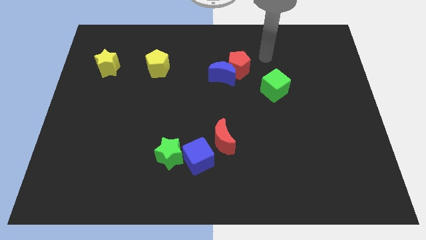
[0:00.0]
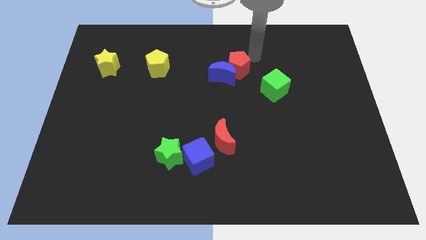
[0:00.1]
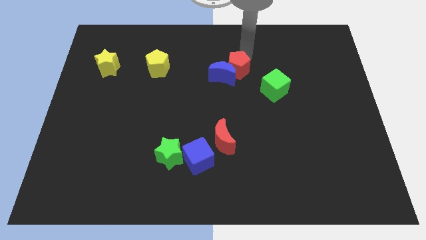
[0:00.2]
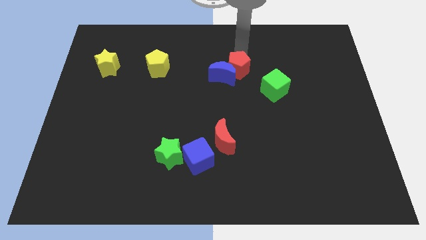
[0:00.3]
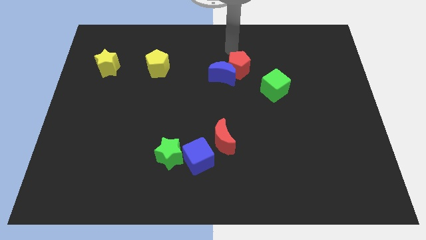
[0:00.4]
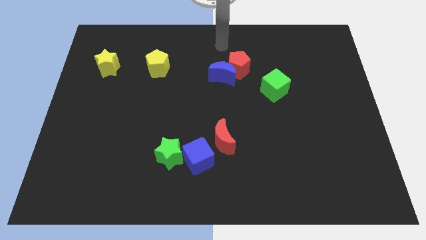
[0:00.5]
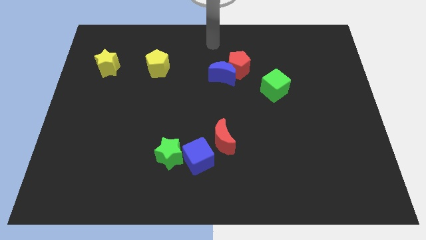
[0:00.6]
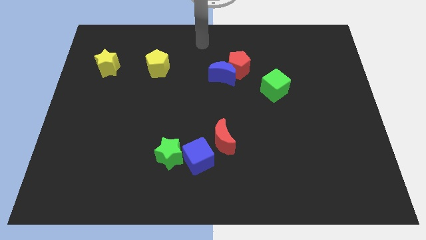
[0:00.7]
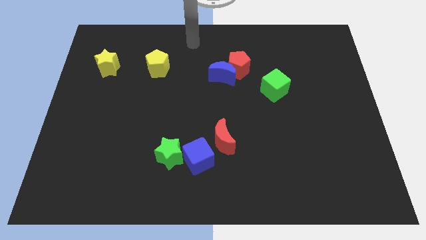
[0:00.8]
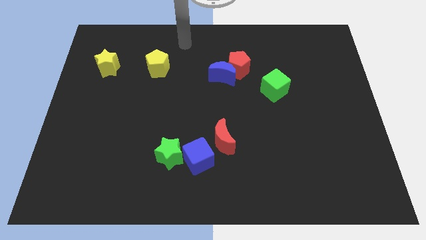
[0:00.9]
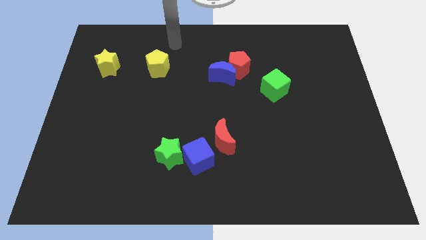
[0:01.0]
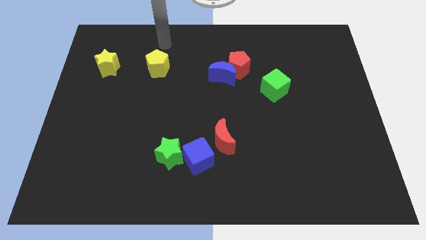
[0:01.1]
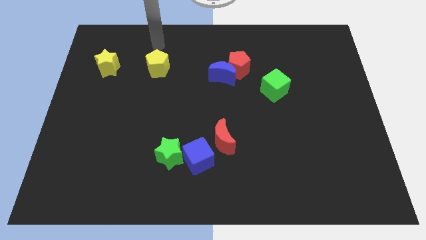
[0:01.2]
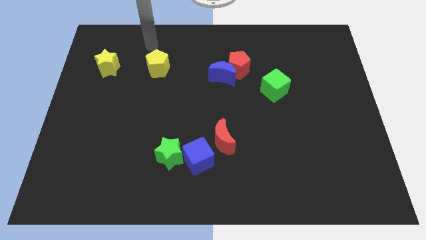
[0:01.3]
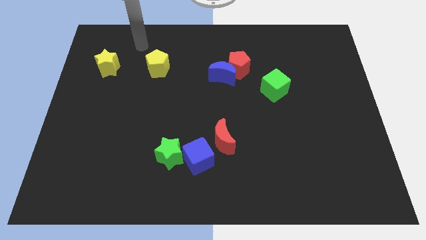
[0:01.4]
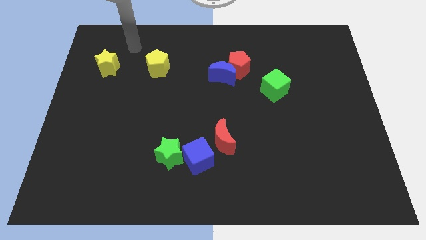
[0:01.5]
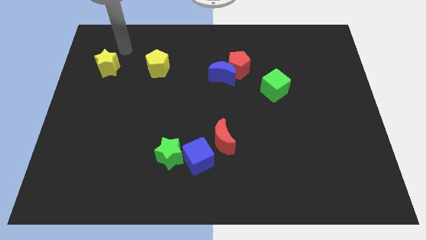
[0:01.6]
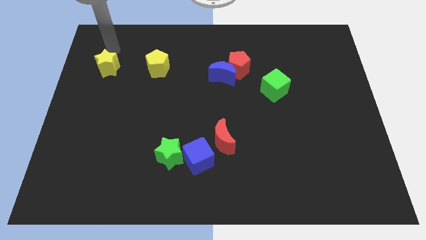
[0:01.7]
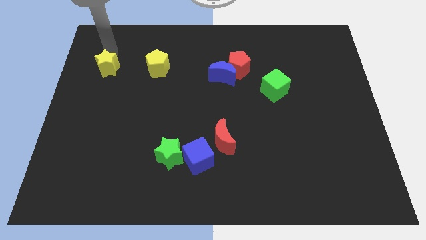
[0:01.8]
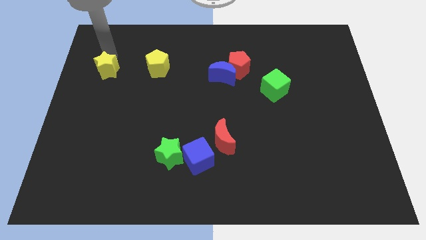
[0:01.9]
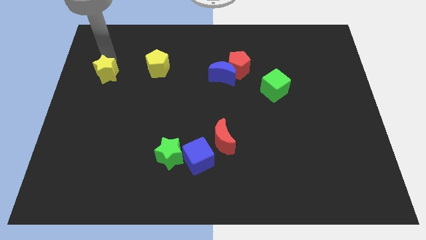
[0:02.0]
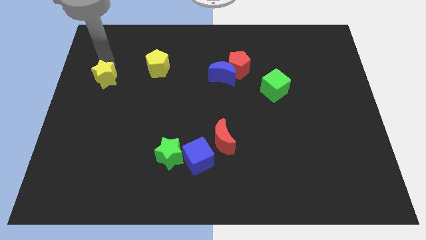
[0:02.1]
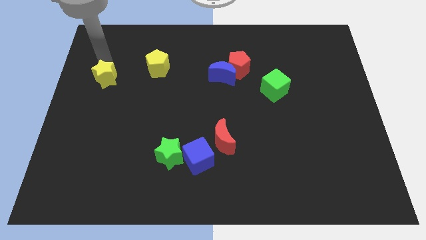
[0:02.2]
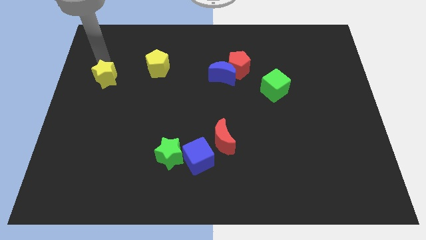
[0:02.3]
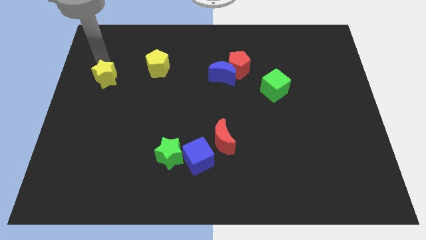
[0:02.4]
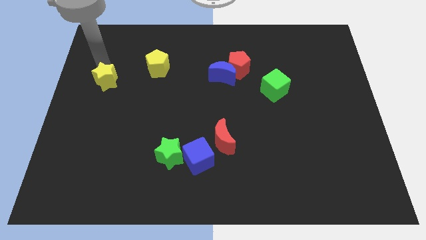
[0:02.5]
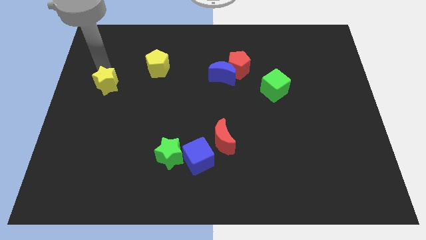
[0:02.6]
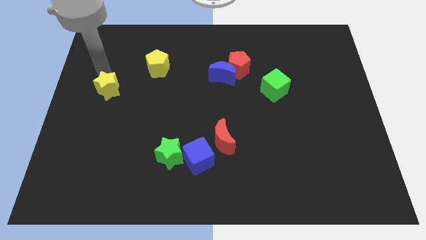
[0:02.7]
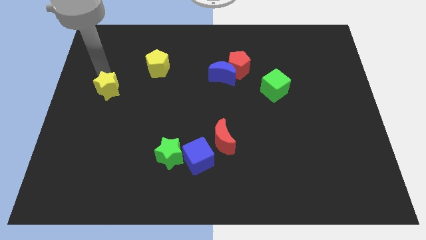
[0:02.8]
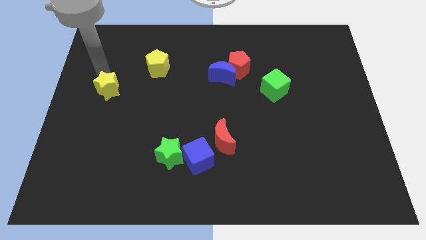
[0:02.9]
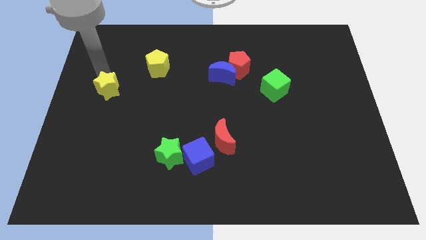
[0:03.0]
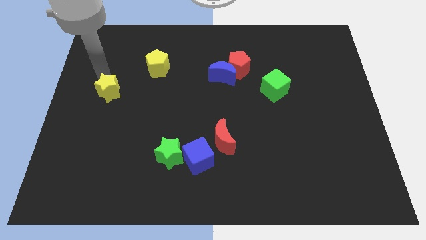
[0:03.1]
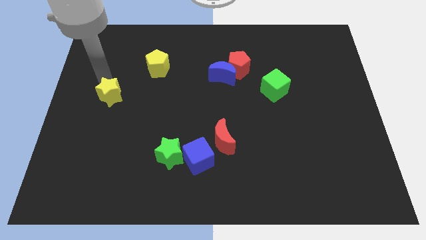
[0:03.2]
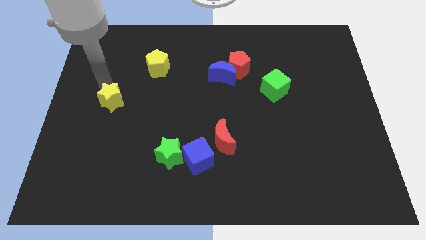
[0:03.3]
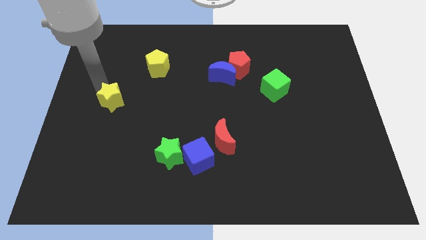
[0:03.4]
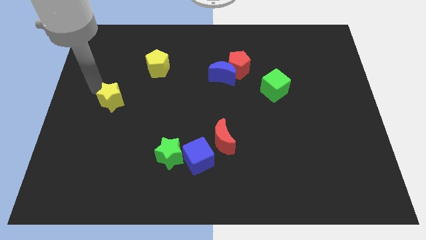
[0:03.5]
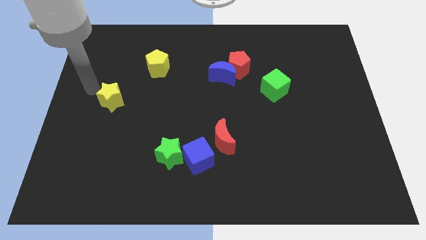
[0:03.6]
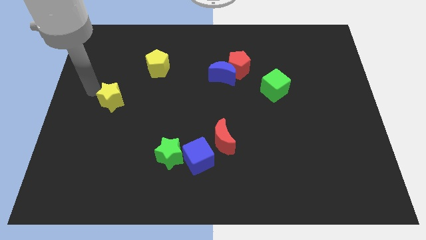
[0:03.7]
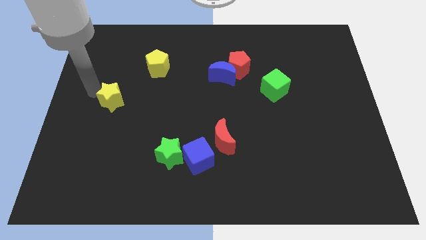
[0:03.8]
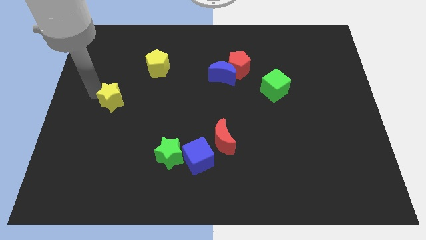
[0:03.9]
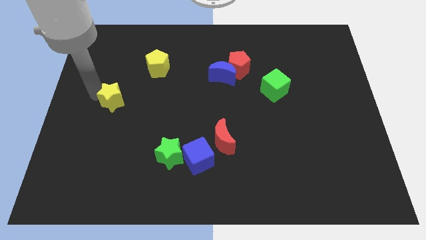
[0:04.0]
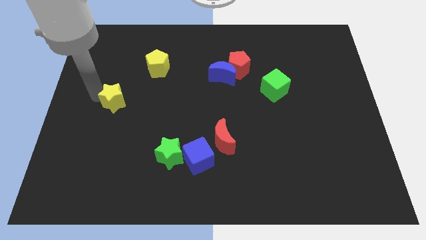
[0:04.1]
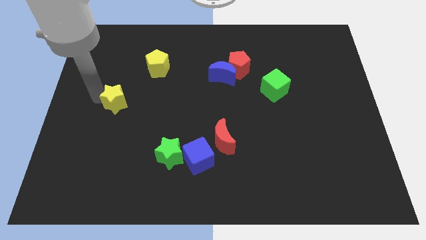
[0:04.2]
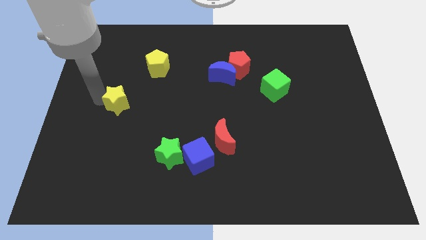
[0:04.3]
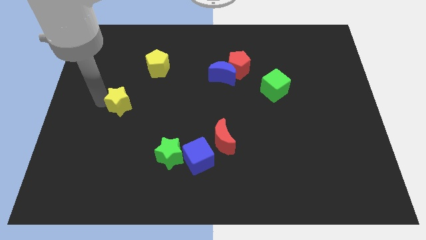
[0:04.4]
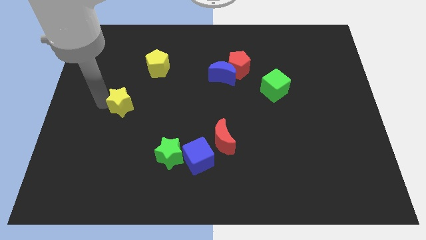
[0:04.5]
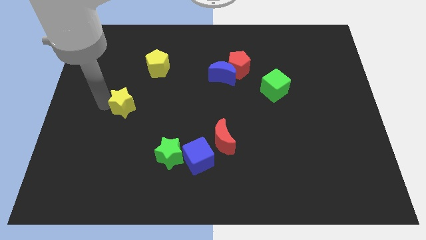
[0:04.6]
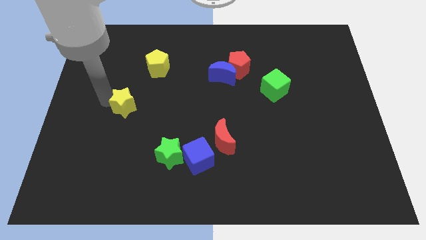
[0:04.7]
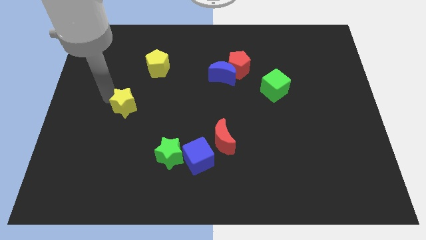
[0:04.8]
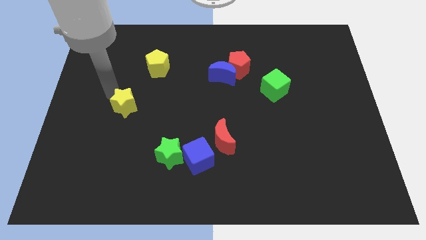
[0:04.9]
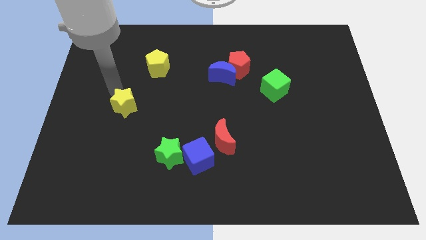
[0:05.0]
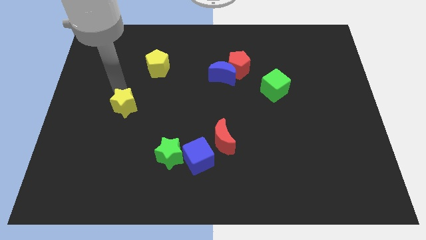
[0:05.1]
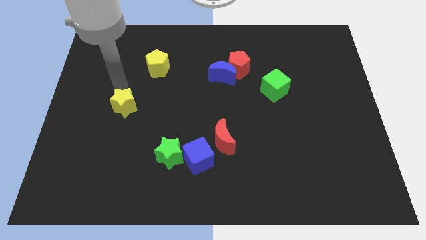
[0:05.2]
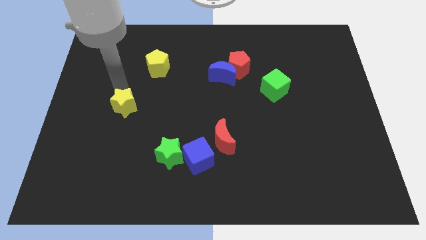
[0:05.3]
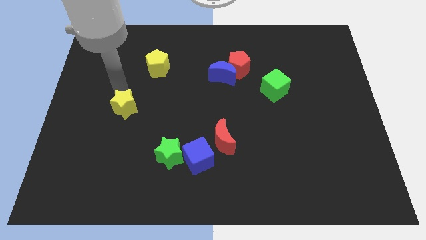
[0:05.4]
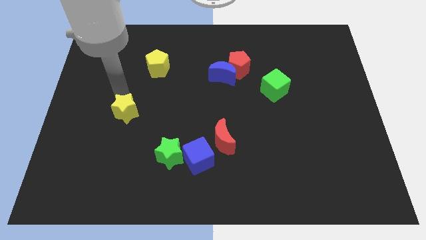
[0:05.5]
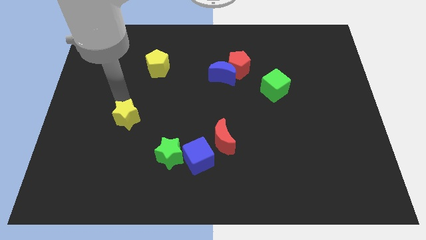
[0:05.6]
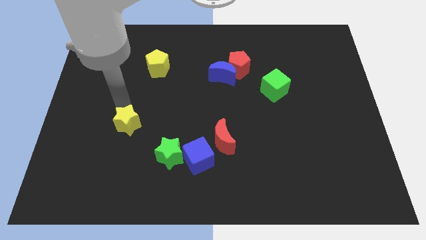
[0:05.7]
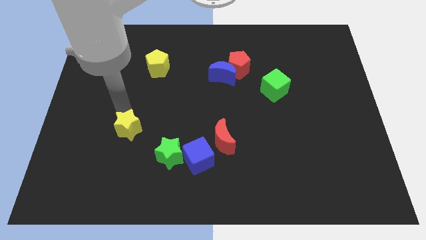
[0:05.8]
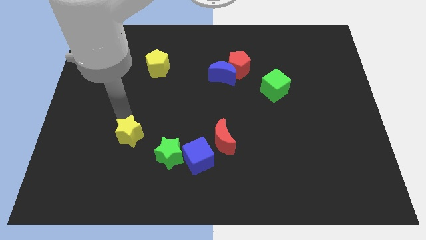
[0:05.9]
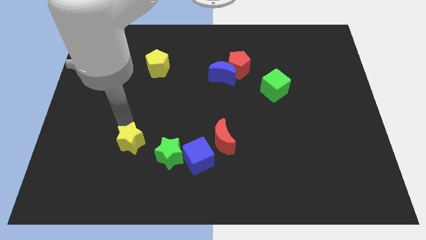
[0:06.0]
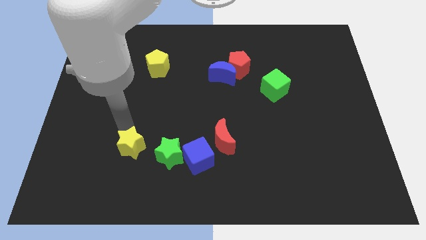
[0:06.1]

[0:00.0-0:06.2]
put the yellow star to the left of the blue cube

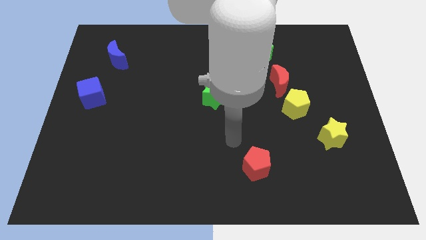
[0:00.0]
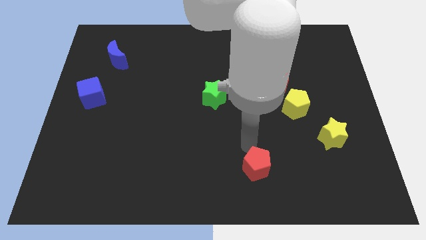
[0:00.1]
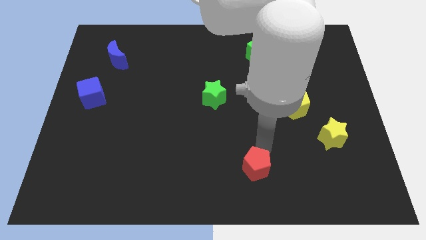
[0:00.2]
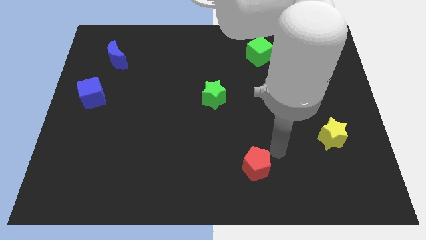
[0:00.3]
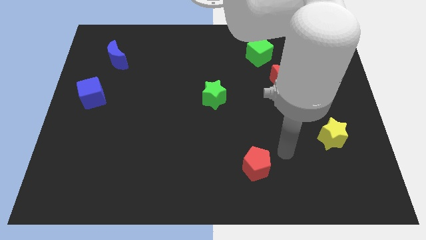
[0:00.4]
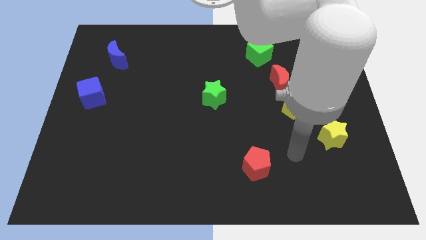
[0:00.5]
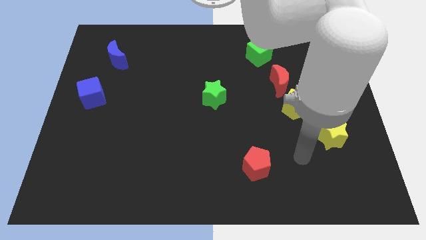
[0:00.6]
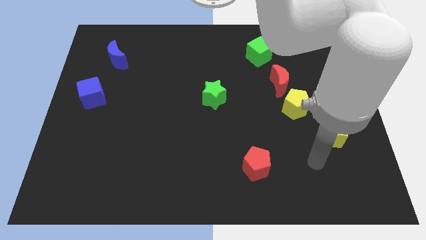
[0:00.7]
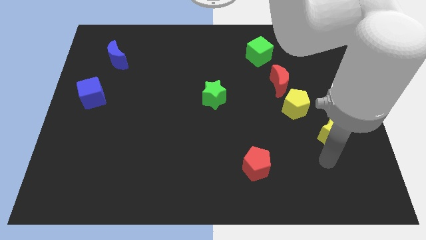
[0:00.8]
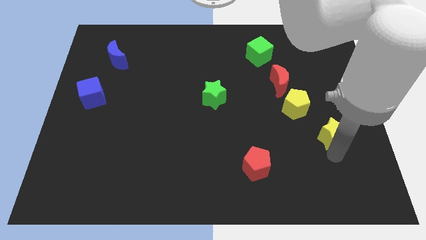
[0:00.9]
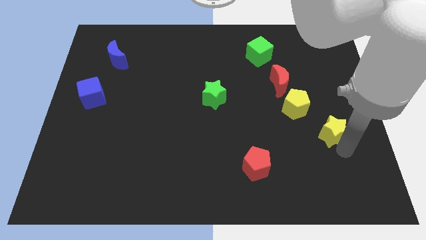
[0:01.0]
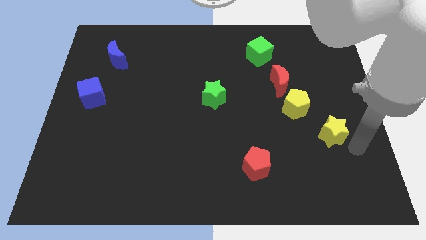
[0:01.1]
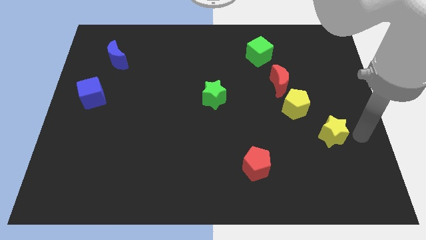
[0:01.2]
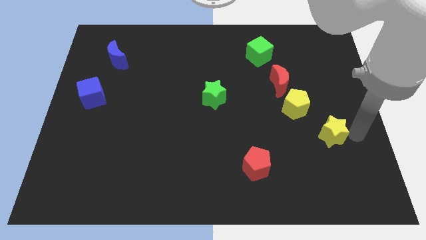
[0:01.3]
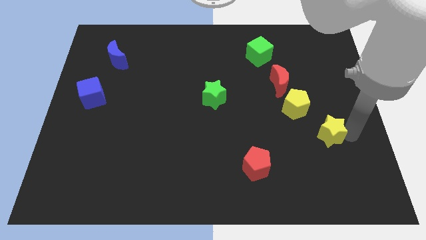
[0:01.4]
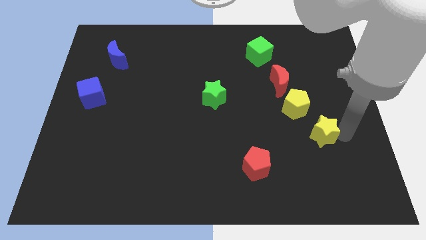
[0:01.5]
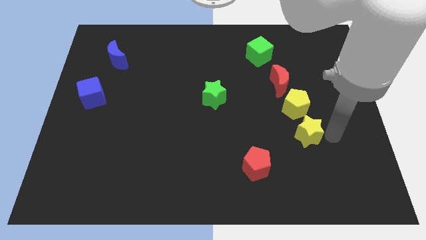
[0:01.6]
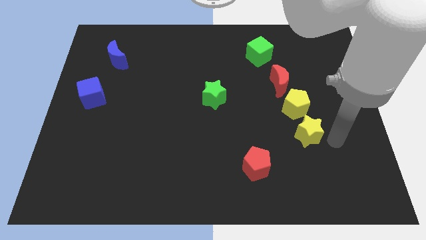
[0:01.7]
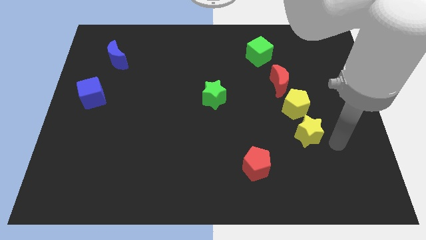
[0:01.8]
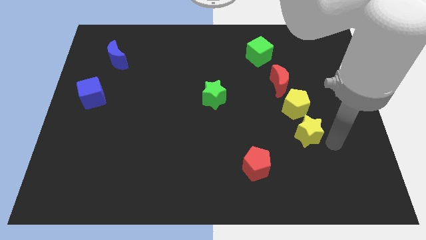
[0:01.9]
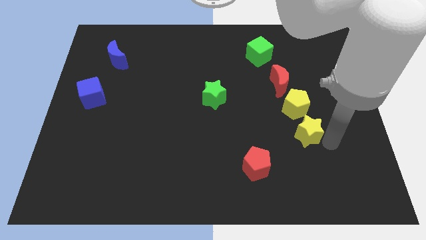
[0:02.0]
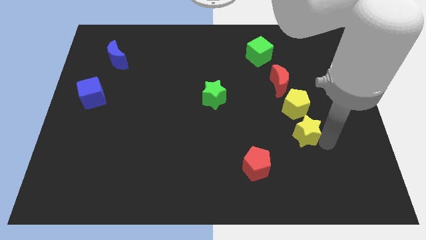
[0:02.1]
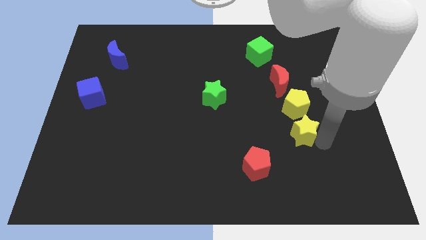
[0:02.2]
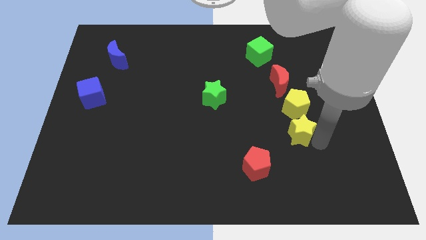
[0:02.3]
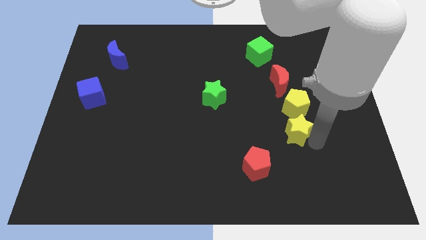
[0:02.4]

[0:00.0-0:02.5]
push the yellow star diagonally down and to the left of the yellow pentagon
